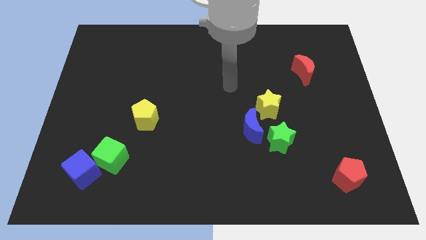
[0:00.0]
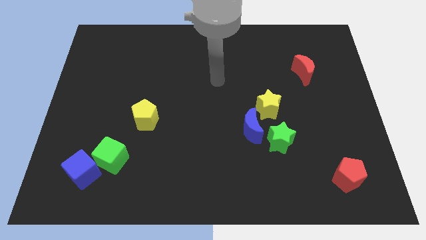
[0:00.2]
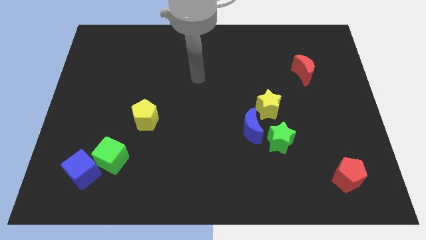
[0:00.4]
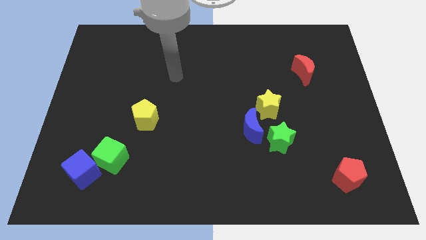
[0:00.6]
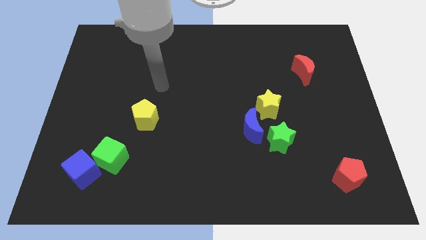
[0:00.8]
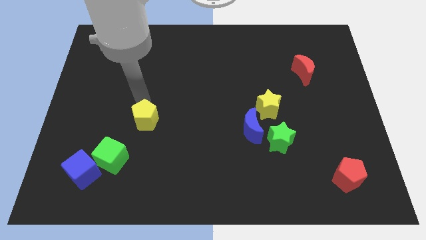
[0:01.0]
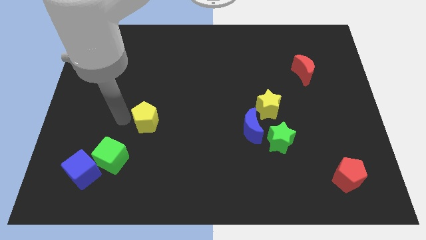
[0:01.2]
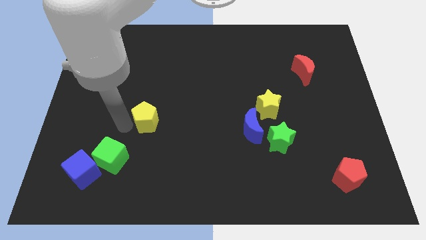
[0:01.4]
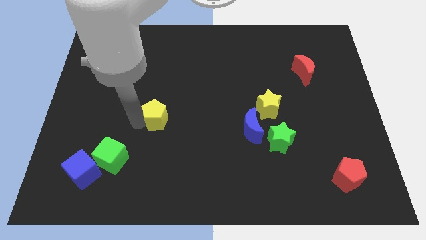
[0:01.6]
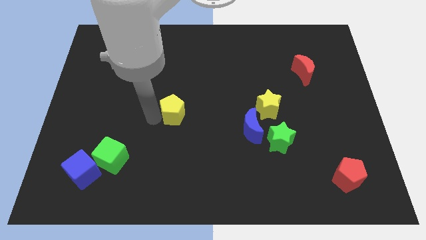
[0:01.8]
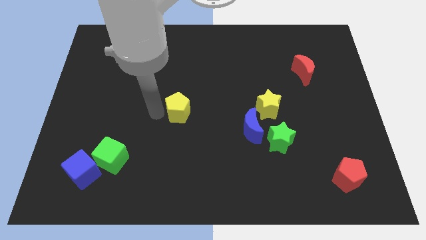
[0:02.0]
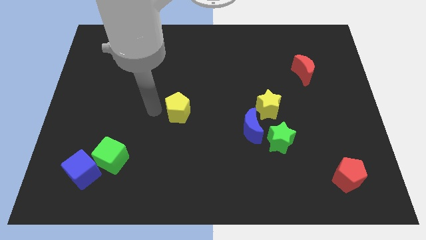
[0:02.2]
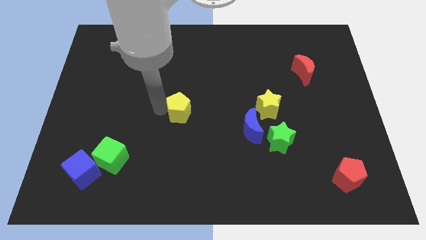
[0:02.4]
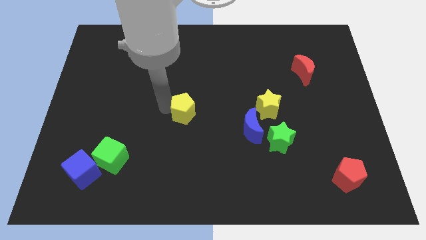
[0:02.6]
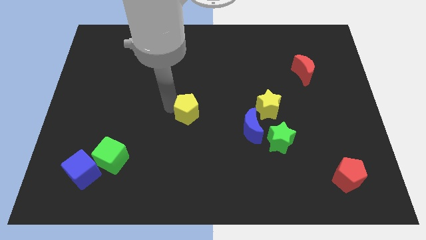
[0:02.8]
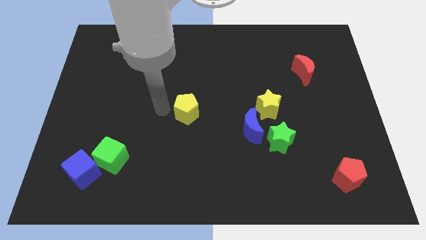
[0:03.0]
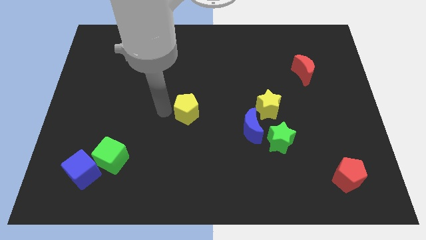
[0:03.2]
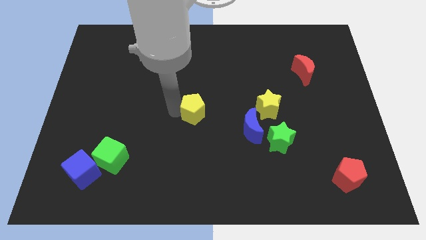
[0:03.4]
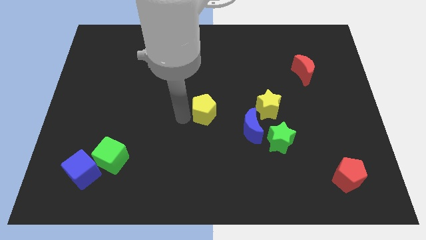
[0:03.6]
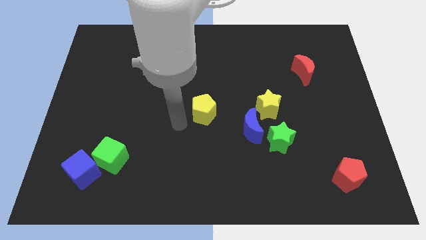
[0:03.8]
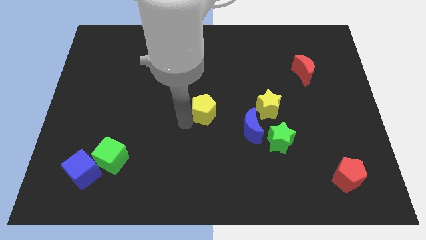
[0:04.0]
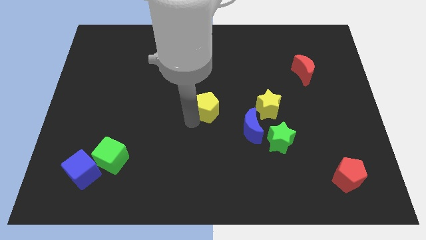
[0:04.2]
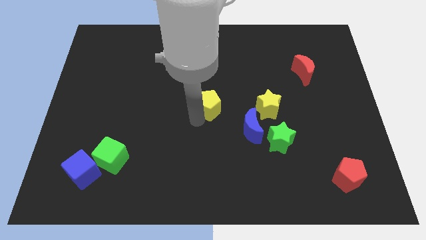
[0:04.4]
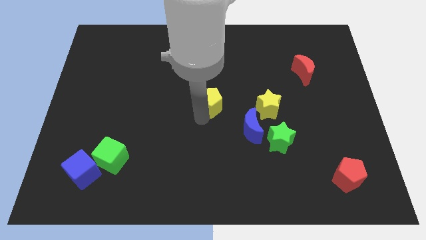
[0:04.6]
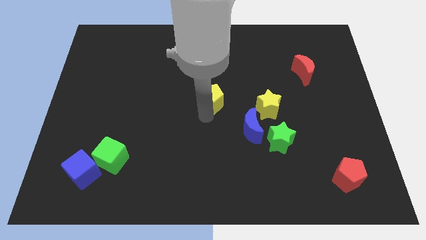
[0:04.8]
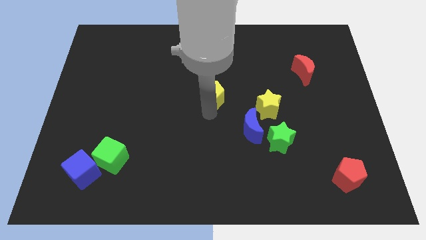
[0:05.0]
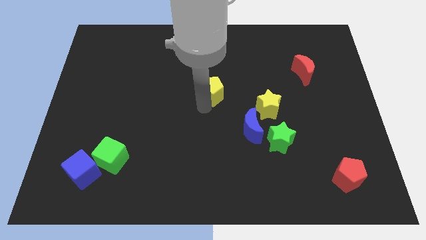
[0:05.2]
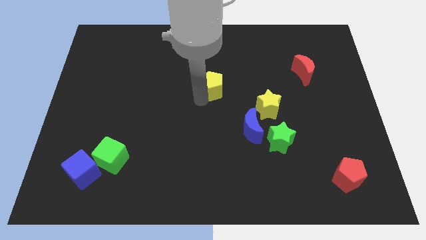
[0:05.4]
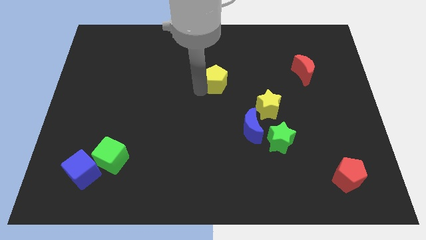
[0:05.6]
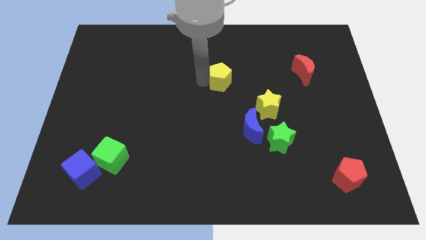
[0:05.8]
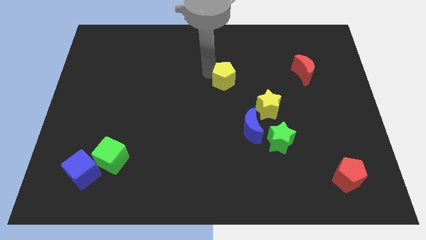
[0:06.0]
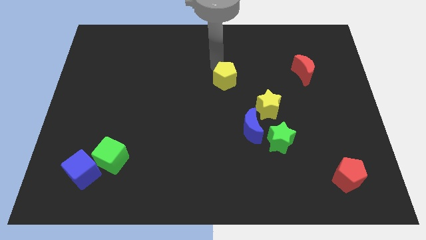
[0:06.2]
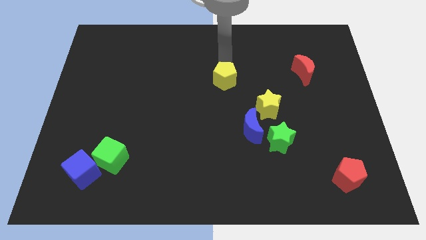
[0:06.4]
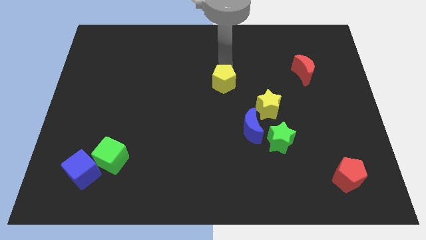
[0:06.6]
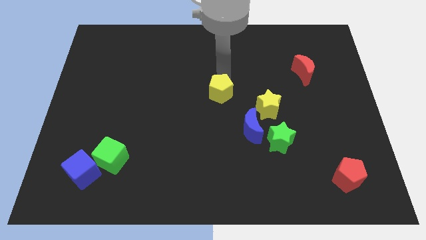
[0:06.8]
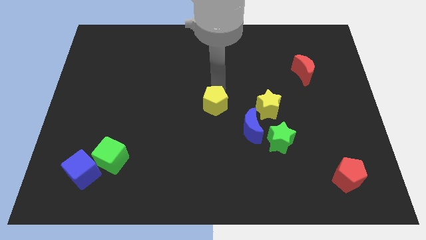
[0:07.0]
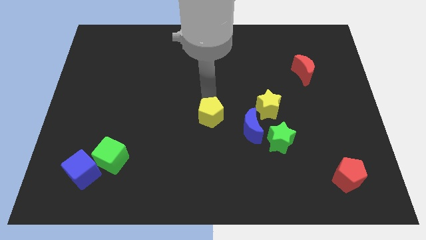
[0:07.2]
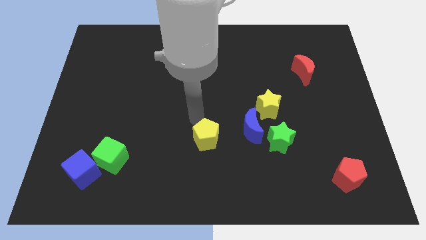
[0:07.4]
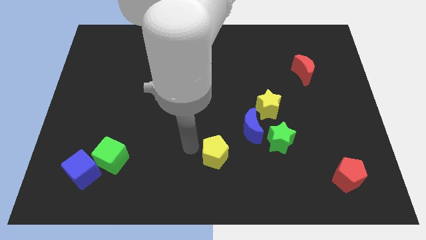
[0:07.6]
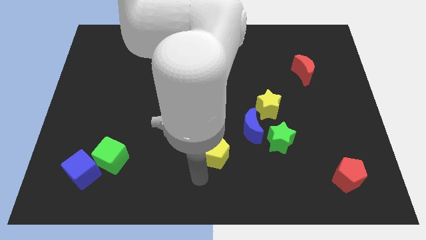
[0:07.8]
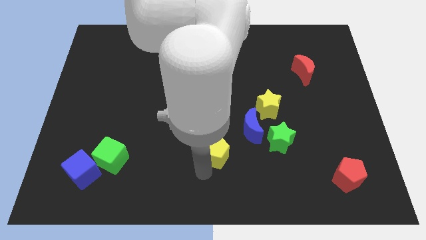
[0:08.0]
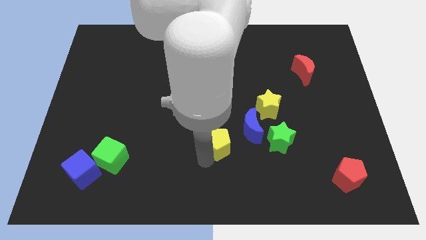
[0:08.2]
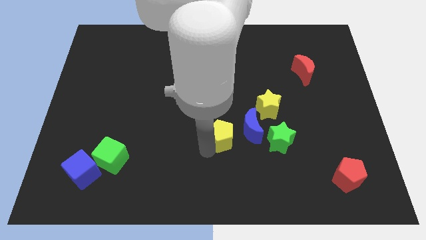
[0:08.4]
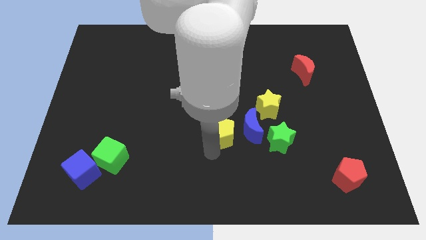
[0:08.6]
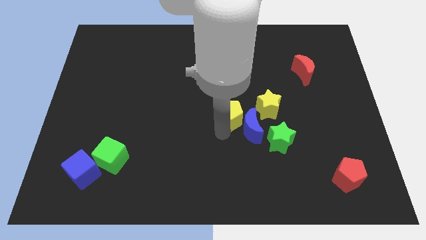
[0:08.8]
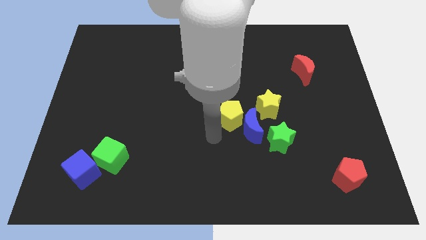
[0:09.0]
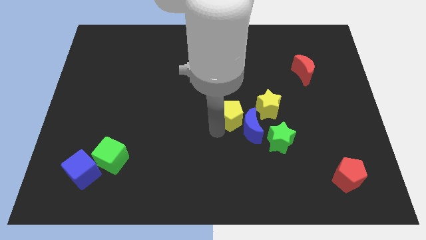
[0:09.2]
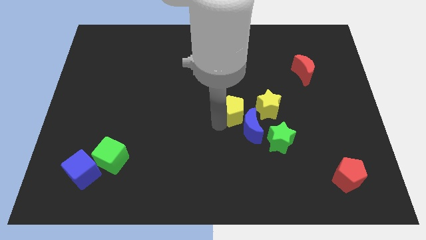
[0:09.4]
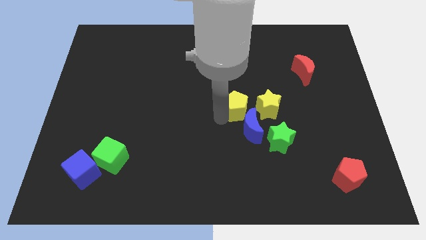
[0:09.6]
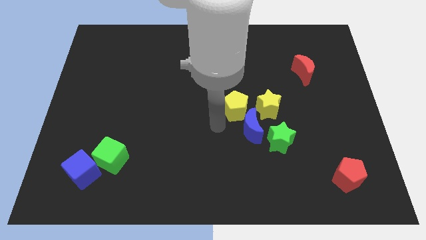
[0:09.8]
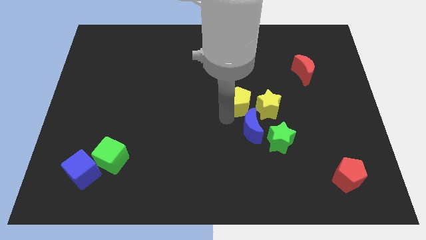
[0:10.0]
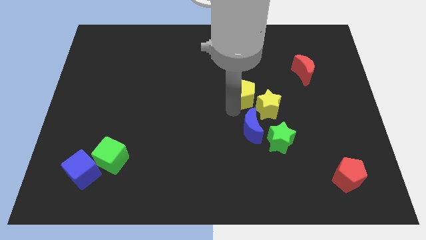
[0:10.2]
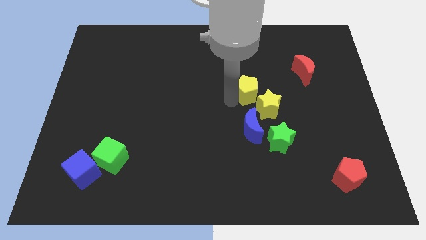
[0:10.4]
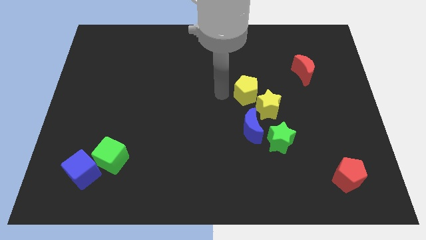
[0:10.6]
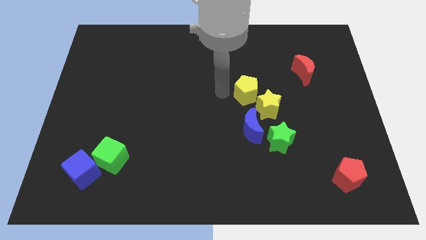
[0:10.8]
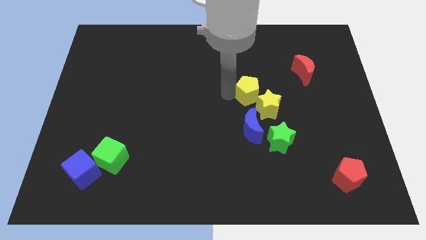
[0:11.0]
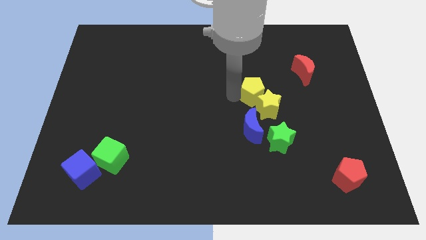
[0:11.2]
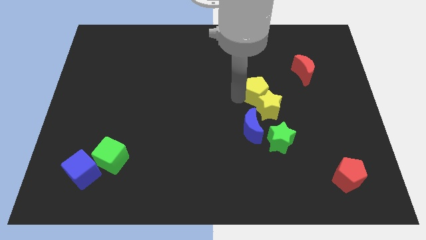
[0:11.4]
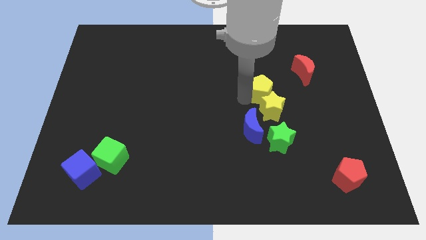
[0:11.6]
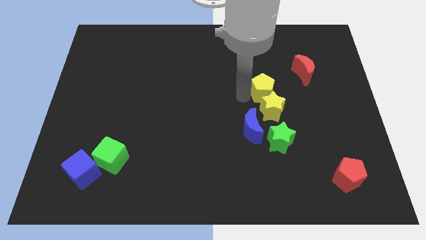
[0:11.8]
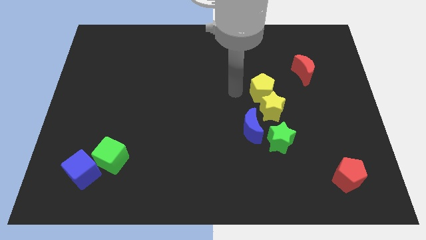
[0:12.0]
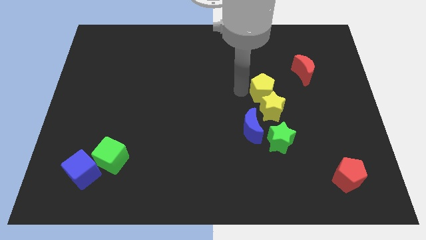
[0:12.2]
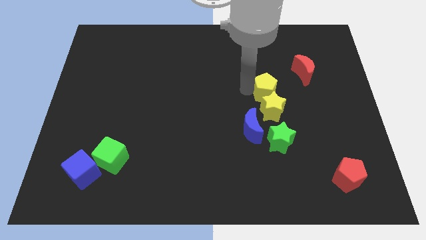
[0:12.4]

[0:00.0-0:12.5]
push the yellow pentagon to the top right side of the yellow star
